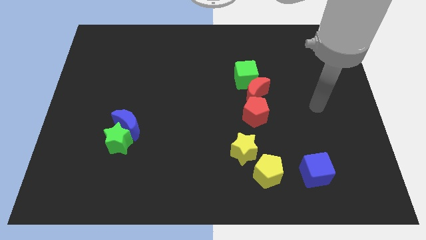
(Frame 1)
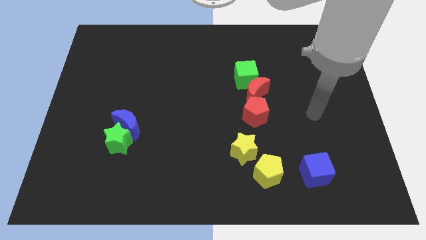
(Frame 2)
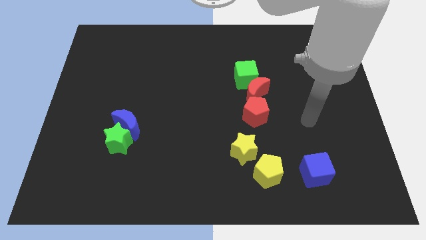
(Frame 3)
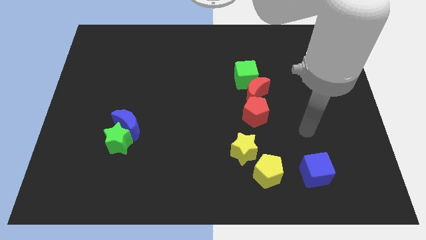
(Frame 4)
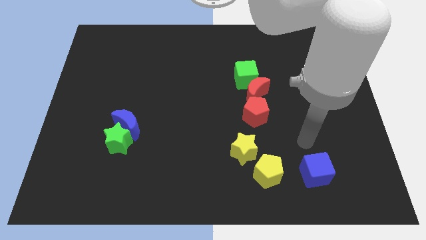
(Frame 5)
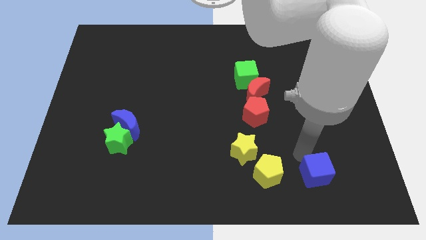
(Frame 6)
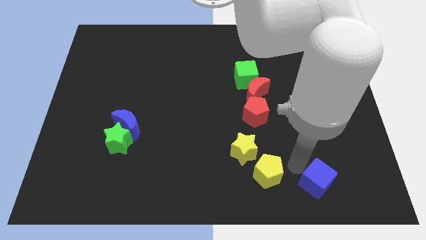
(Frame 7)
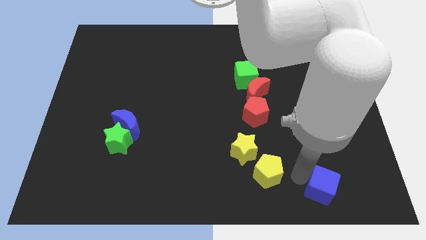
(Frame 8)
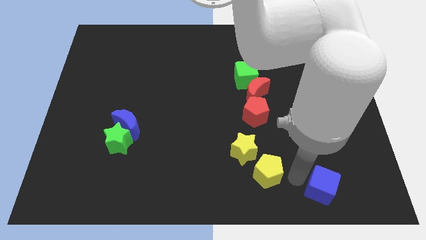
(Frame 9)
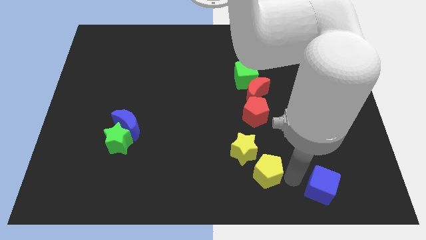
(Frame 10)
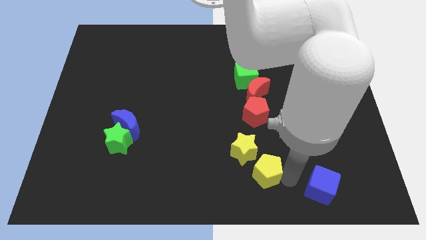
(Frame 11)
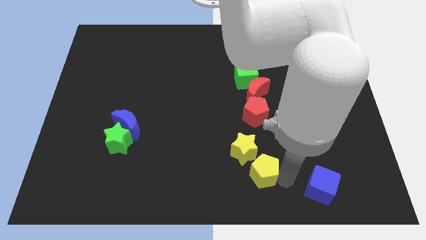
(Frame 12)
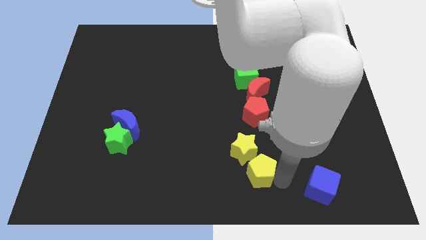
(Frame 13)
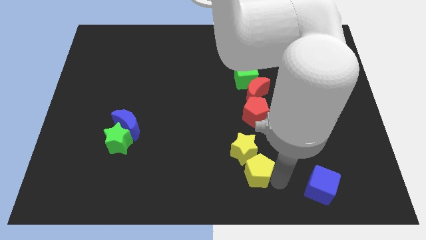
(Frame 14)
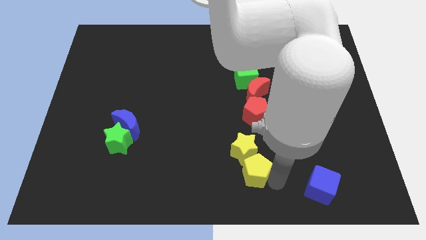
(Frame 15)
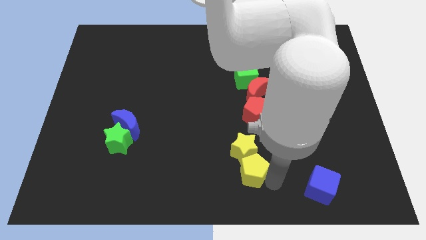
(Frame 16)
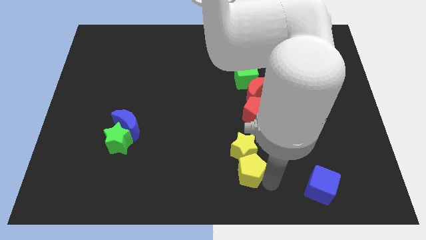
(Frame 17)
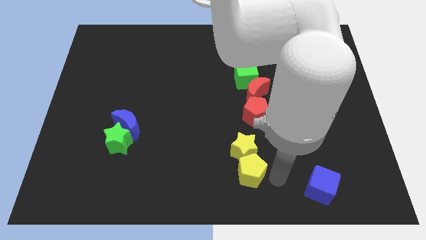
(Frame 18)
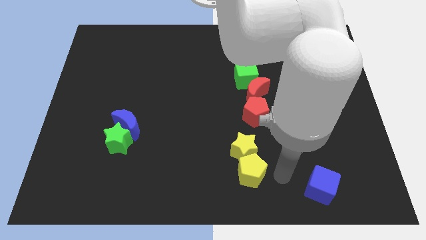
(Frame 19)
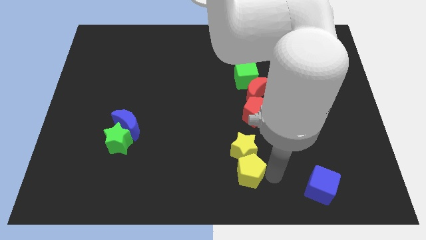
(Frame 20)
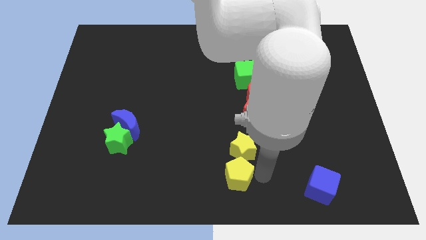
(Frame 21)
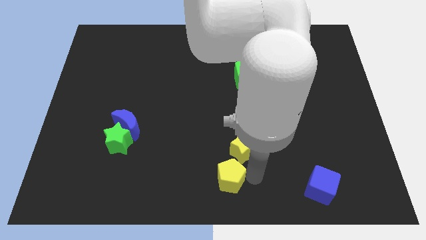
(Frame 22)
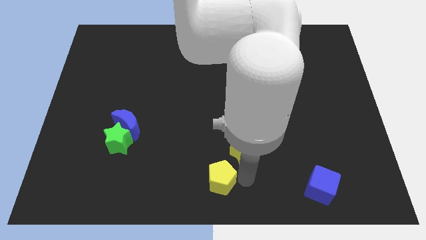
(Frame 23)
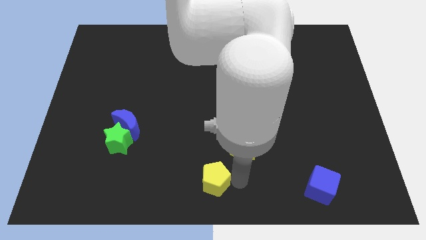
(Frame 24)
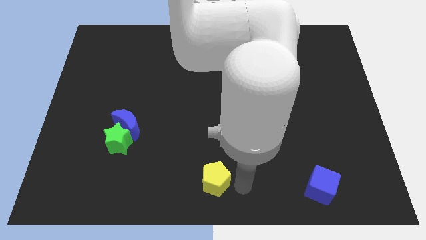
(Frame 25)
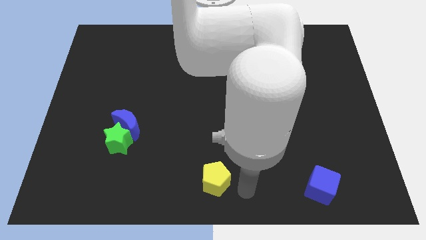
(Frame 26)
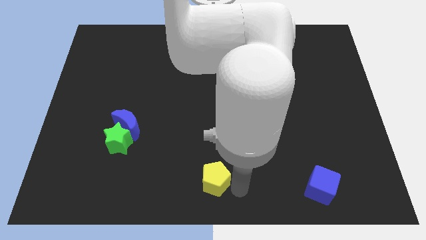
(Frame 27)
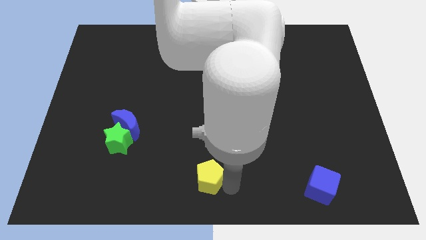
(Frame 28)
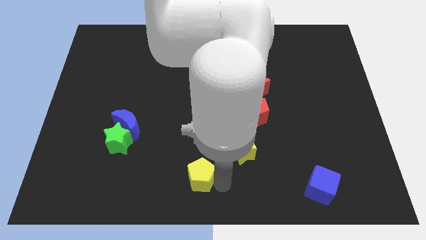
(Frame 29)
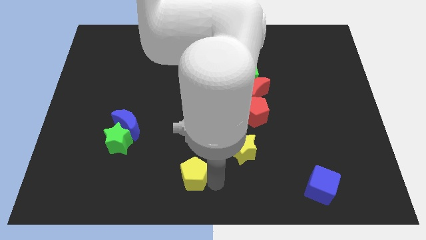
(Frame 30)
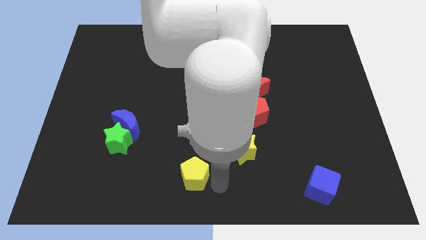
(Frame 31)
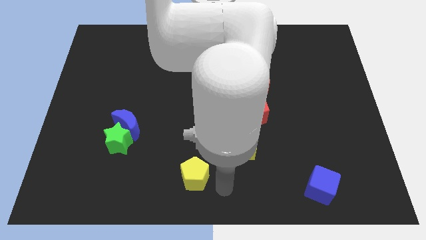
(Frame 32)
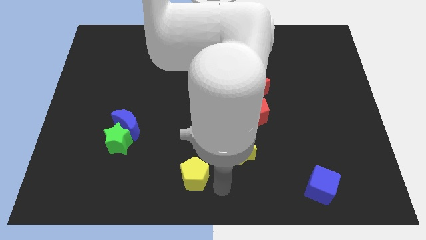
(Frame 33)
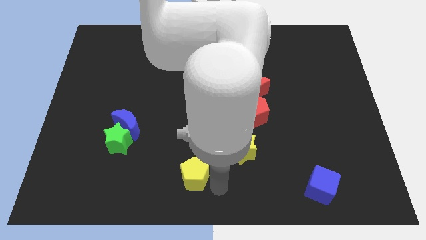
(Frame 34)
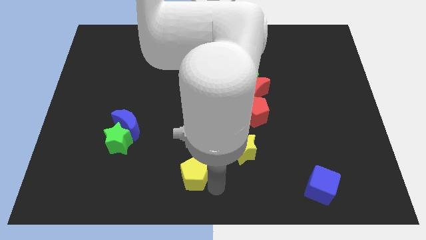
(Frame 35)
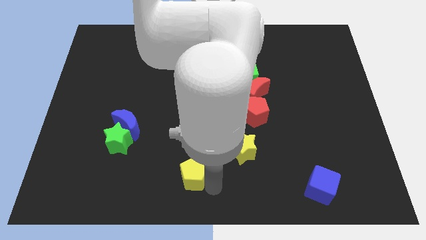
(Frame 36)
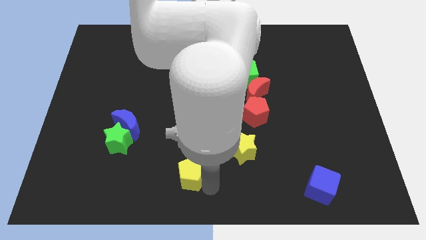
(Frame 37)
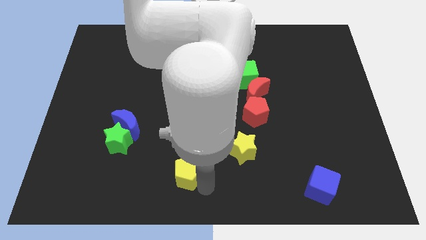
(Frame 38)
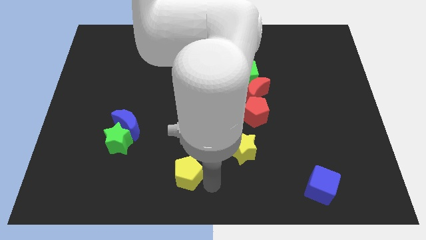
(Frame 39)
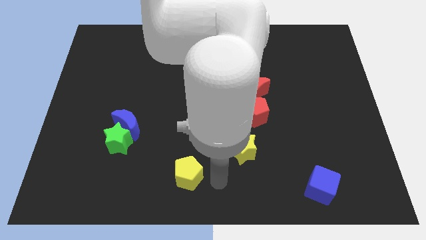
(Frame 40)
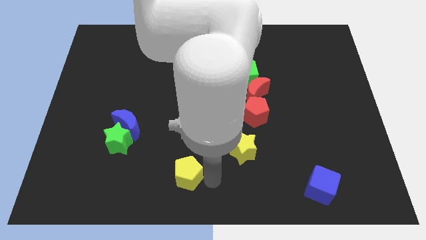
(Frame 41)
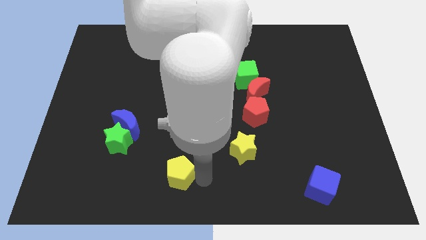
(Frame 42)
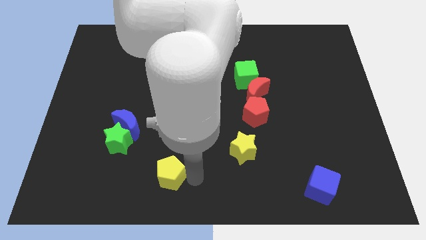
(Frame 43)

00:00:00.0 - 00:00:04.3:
push the yellow pentagon left

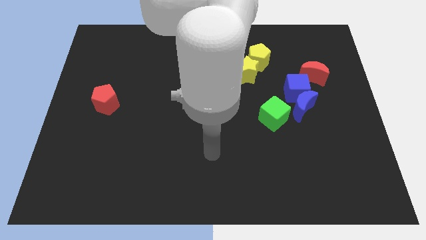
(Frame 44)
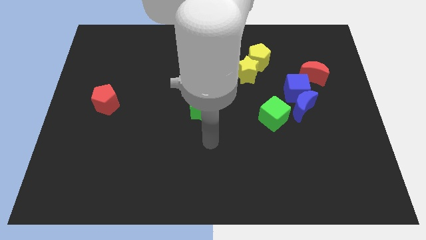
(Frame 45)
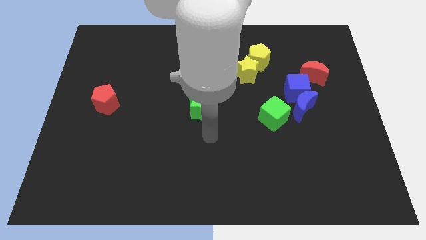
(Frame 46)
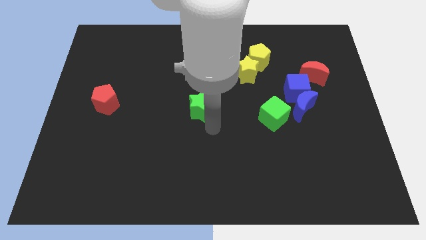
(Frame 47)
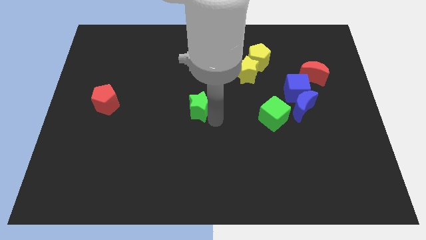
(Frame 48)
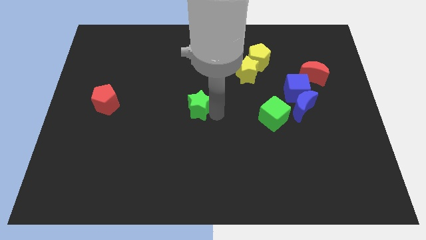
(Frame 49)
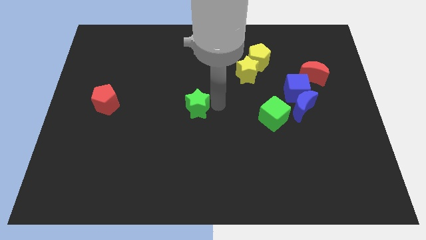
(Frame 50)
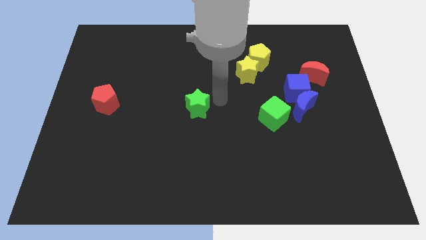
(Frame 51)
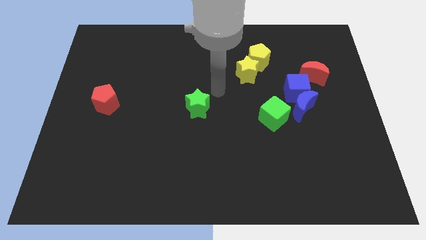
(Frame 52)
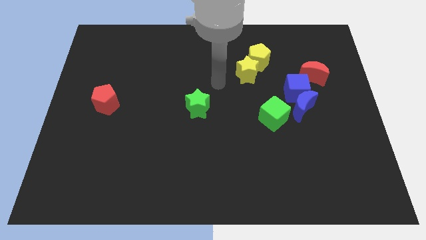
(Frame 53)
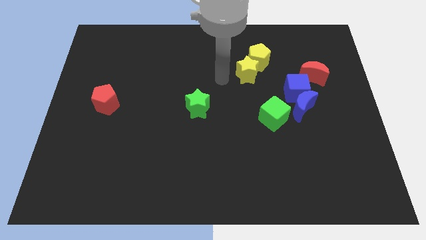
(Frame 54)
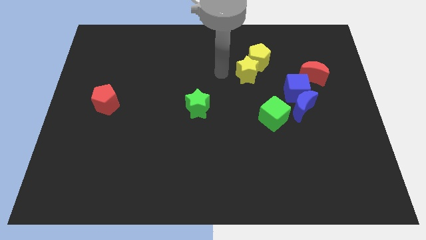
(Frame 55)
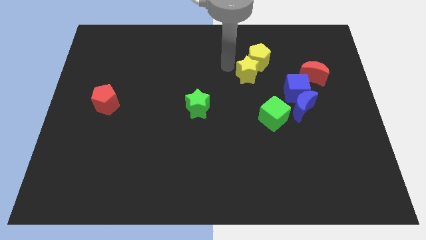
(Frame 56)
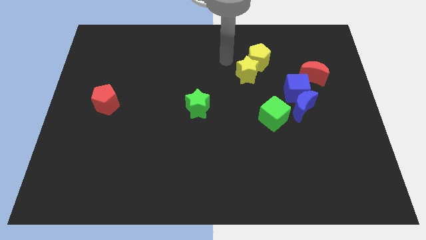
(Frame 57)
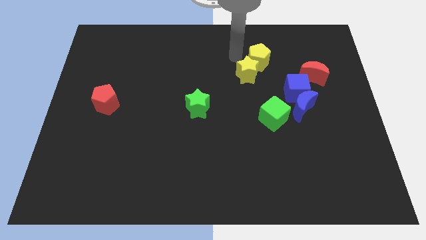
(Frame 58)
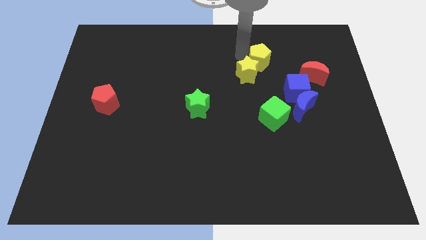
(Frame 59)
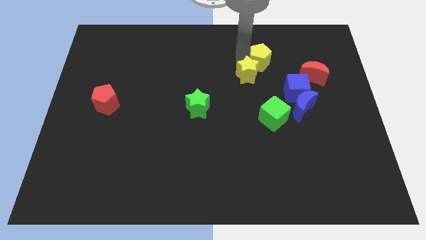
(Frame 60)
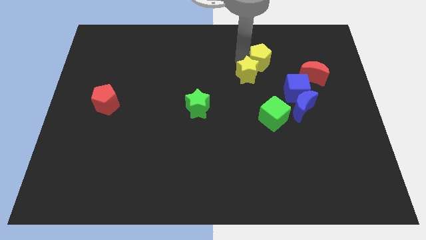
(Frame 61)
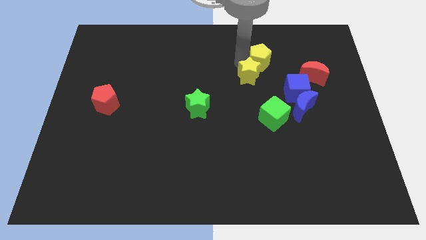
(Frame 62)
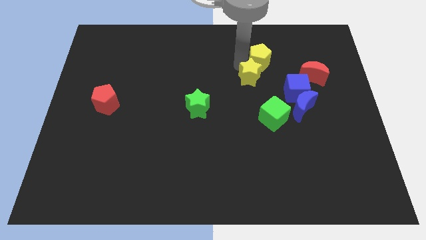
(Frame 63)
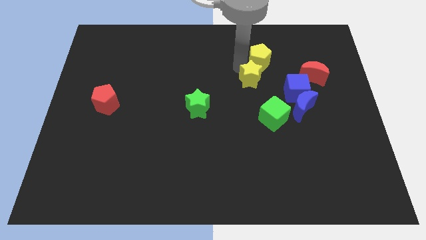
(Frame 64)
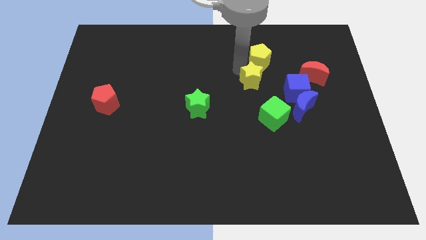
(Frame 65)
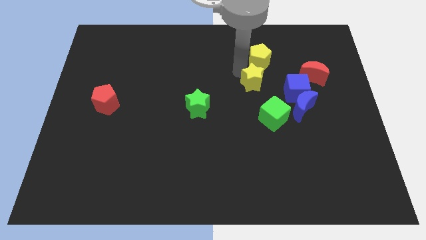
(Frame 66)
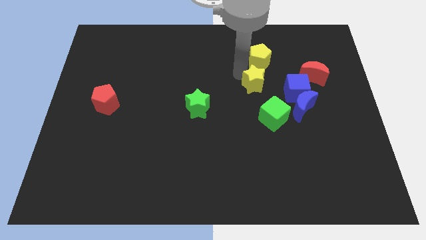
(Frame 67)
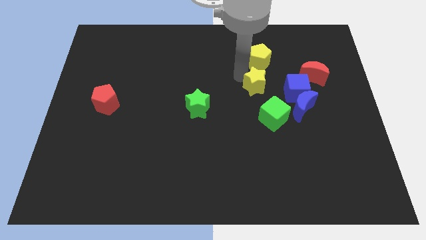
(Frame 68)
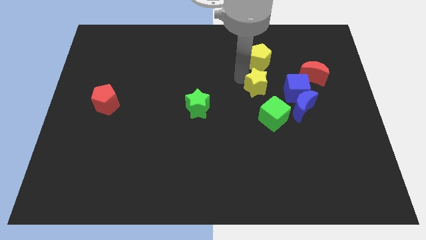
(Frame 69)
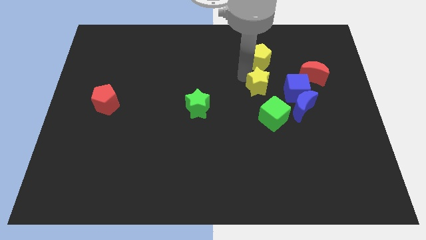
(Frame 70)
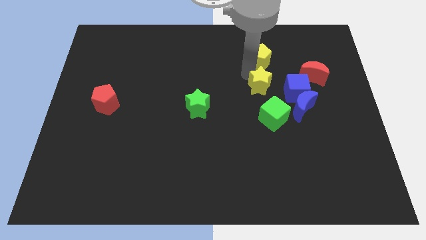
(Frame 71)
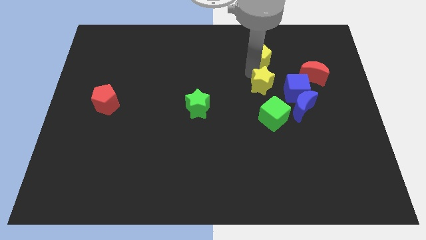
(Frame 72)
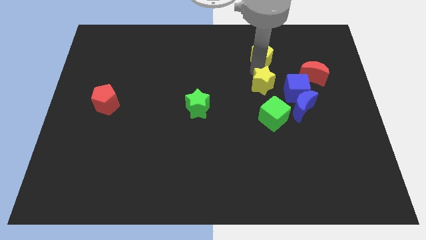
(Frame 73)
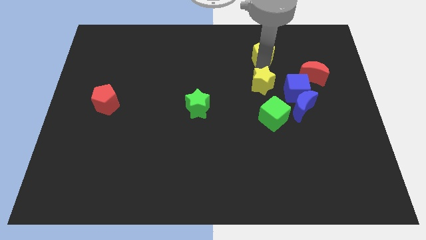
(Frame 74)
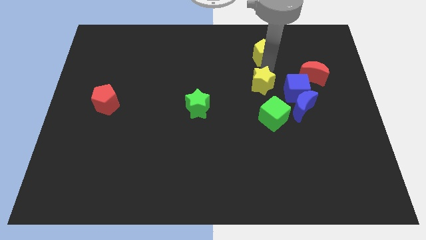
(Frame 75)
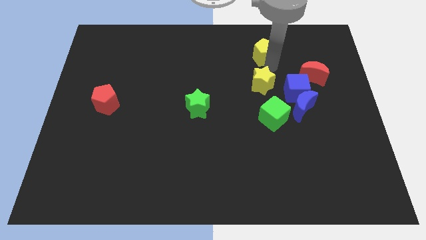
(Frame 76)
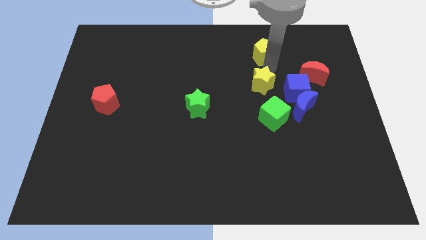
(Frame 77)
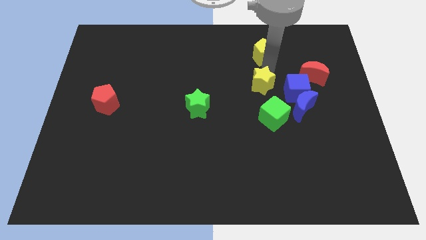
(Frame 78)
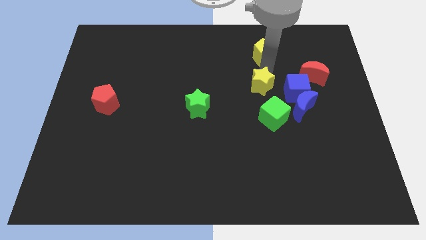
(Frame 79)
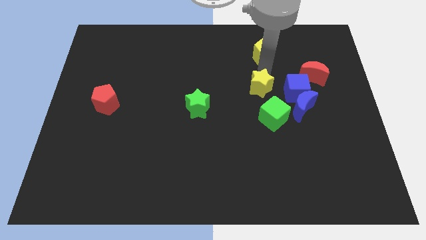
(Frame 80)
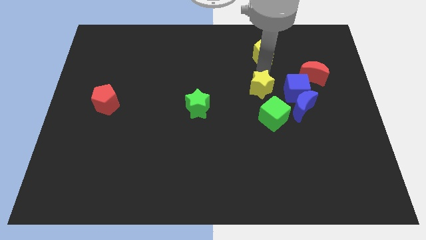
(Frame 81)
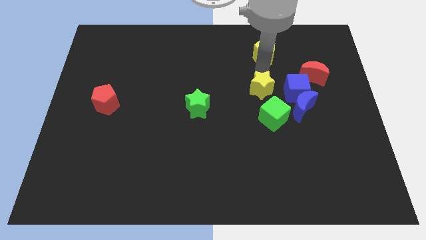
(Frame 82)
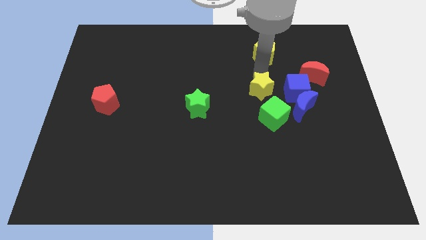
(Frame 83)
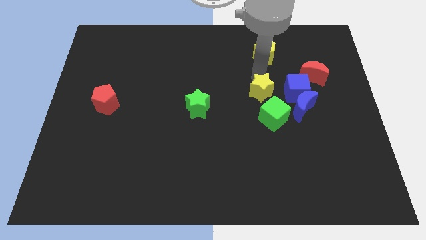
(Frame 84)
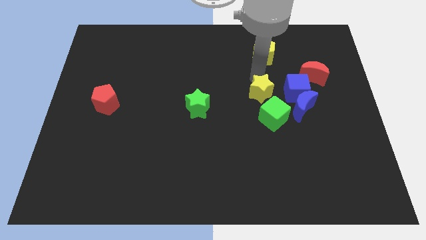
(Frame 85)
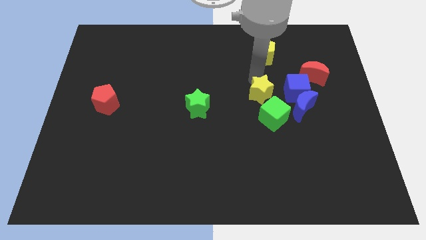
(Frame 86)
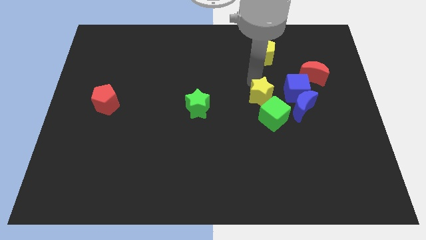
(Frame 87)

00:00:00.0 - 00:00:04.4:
push the yellow star slightly downwards
